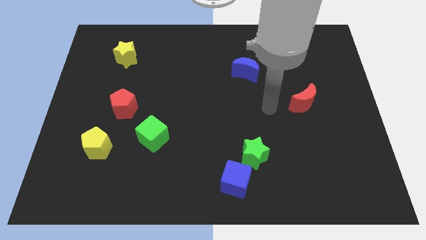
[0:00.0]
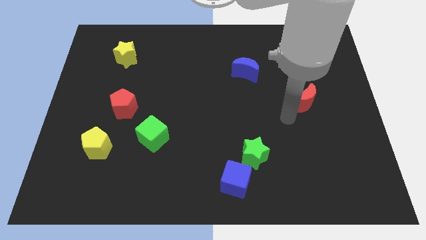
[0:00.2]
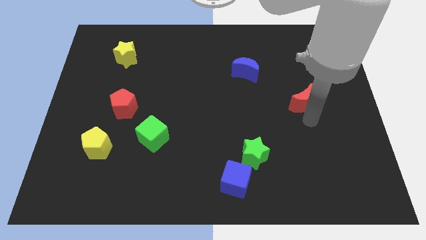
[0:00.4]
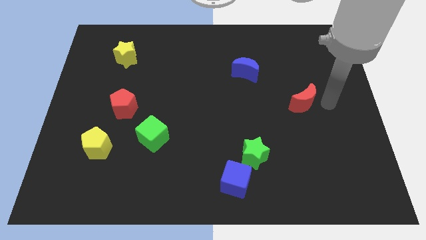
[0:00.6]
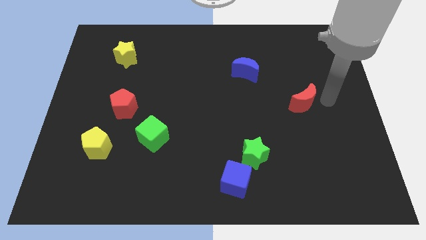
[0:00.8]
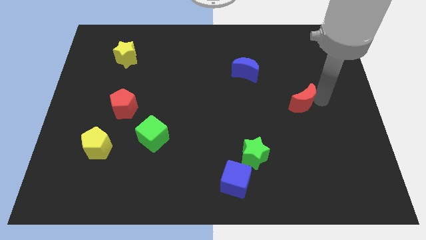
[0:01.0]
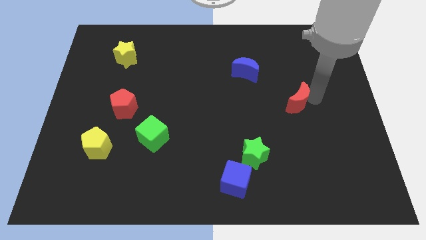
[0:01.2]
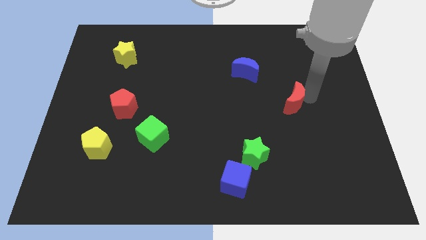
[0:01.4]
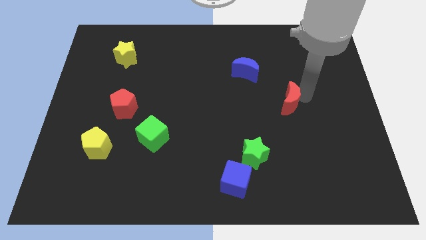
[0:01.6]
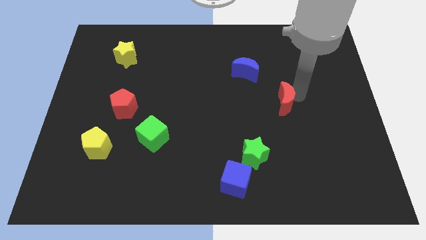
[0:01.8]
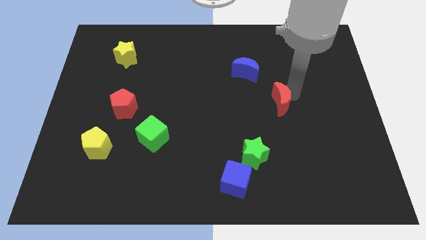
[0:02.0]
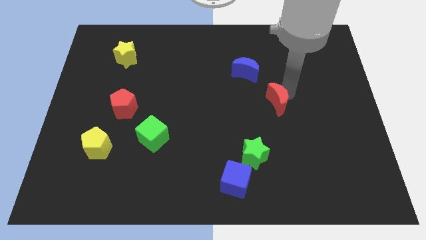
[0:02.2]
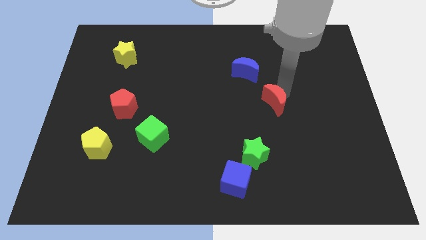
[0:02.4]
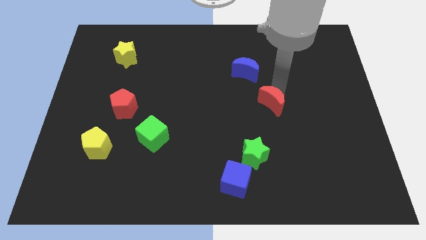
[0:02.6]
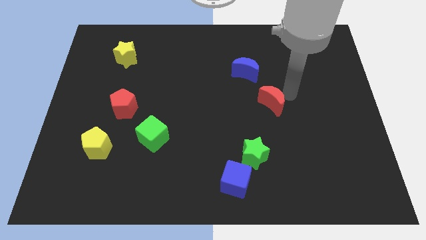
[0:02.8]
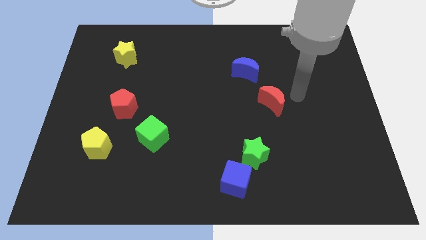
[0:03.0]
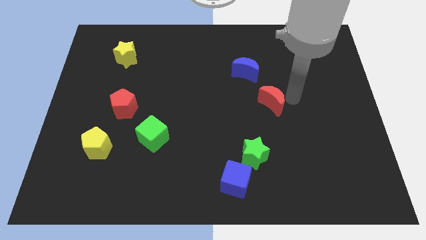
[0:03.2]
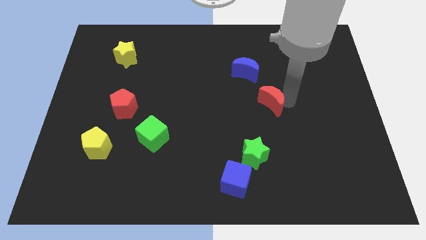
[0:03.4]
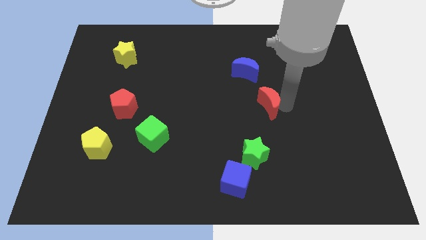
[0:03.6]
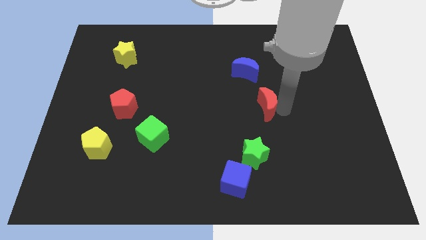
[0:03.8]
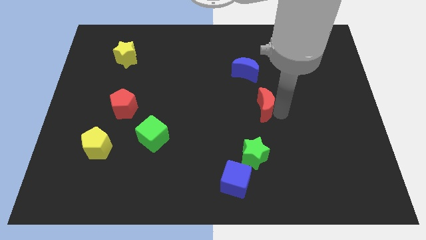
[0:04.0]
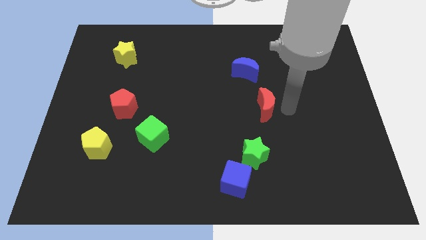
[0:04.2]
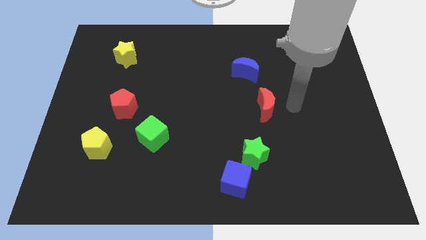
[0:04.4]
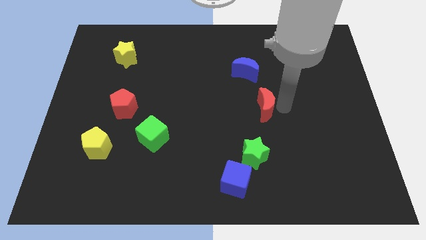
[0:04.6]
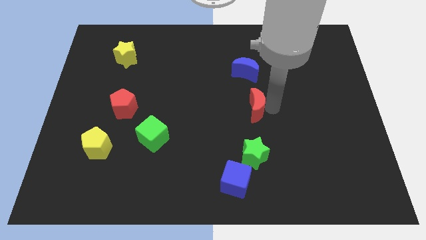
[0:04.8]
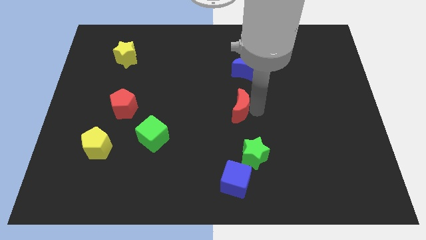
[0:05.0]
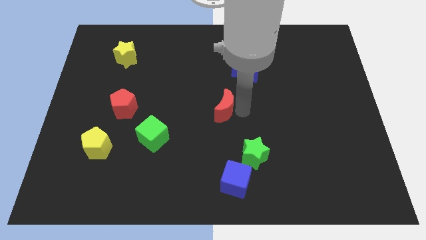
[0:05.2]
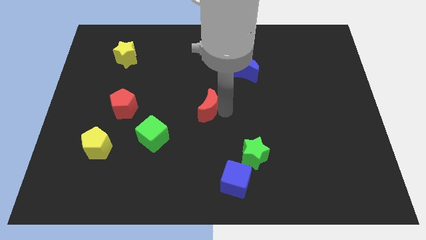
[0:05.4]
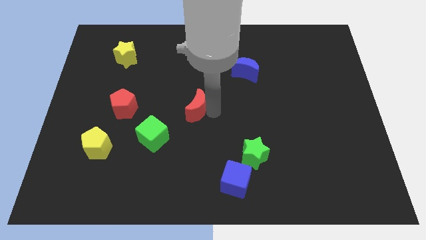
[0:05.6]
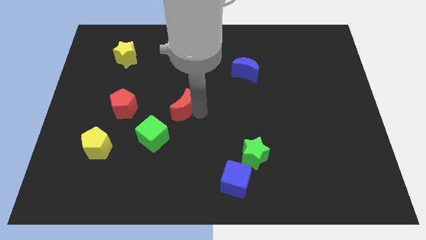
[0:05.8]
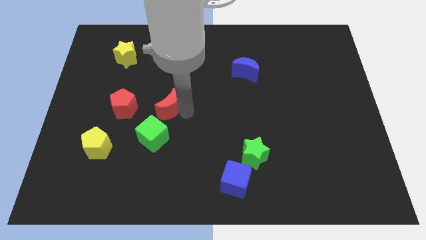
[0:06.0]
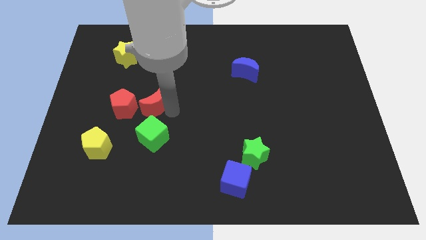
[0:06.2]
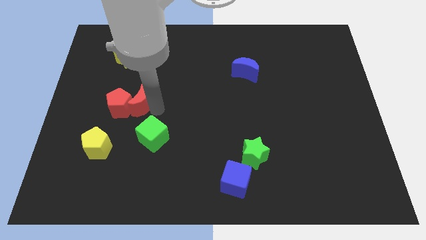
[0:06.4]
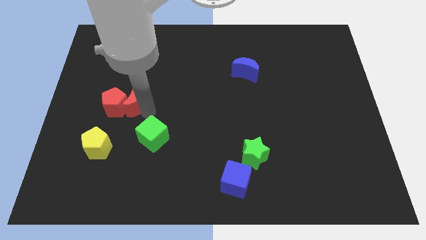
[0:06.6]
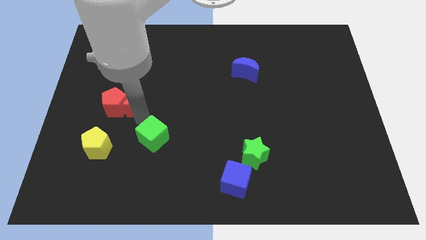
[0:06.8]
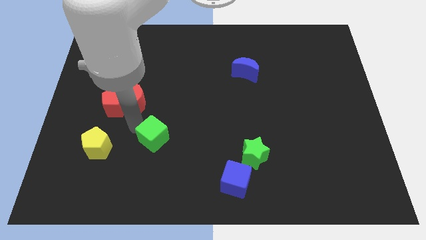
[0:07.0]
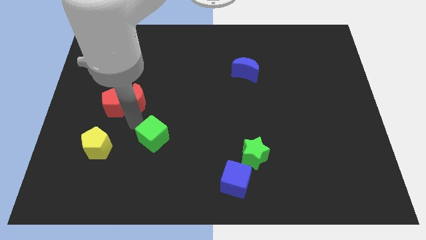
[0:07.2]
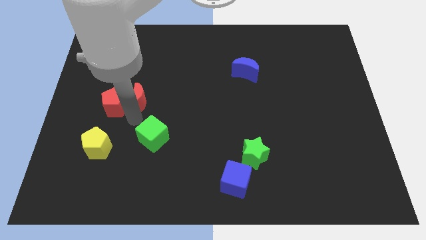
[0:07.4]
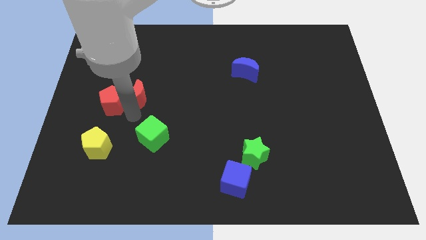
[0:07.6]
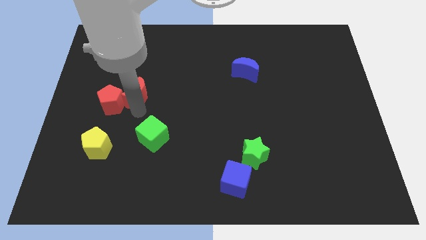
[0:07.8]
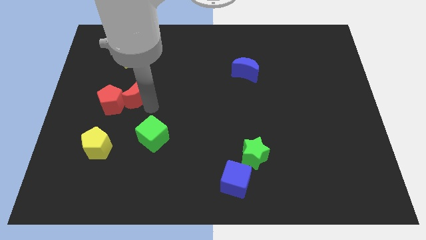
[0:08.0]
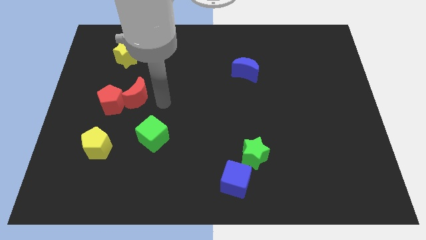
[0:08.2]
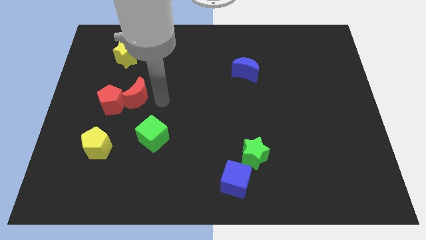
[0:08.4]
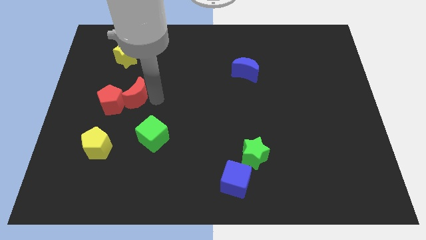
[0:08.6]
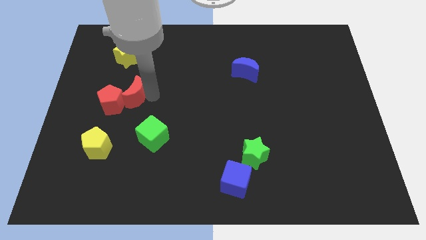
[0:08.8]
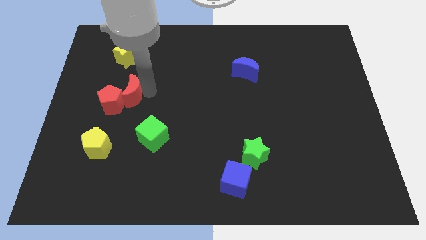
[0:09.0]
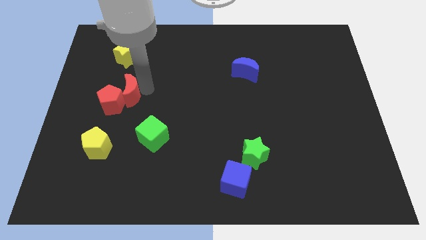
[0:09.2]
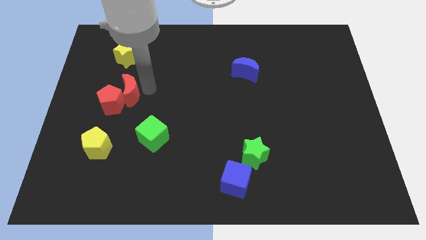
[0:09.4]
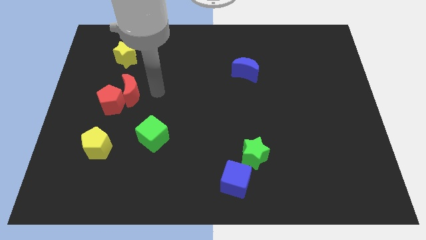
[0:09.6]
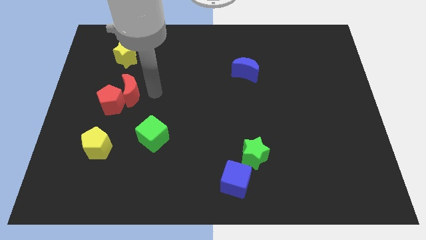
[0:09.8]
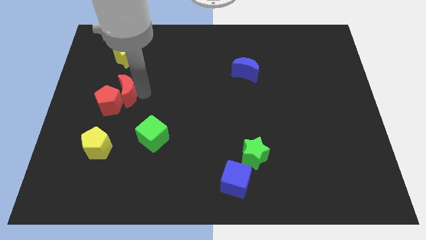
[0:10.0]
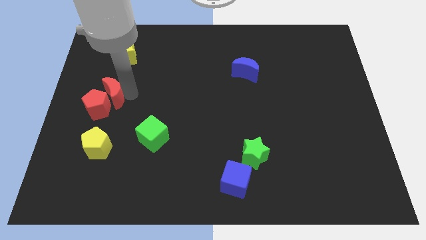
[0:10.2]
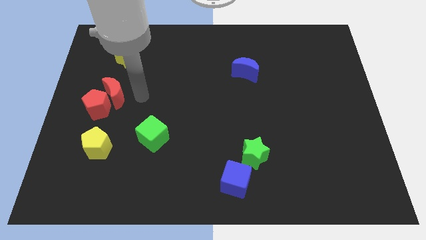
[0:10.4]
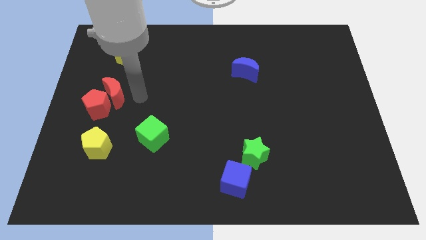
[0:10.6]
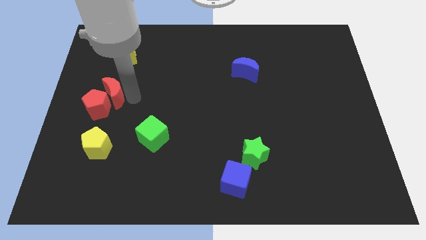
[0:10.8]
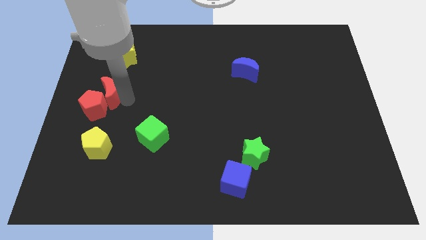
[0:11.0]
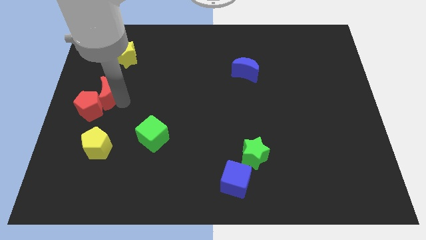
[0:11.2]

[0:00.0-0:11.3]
put the red moon to the left side of the board

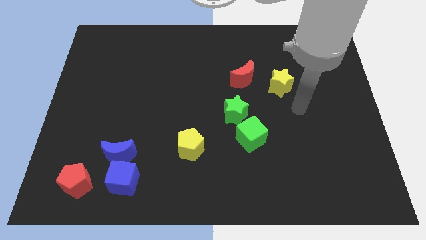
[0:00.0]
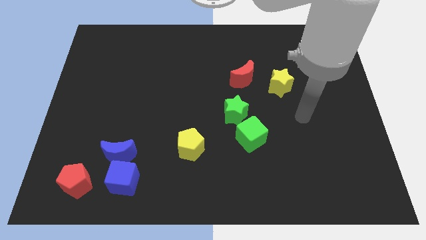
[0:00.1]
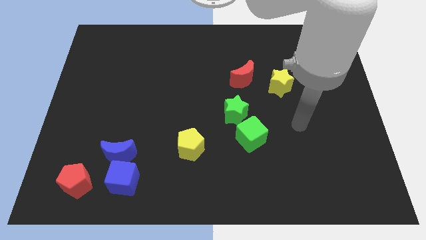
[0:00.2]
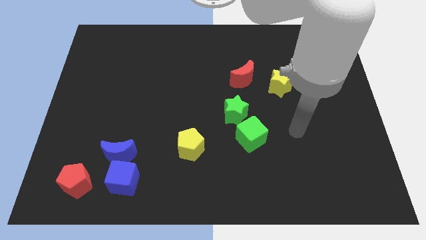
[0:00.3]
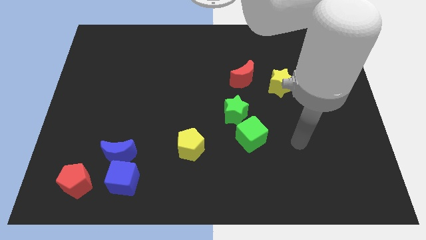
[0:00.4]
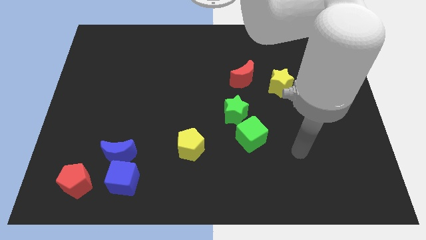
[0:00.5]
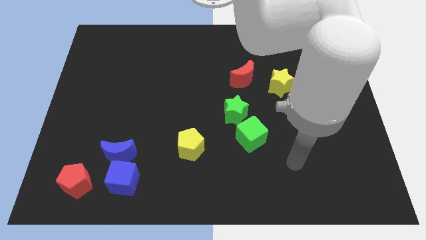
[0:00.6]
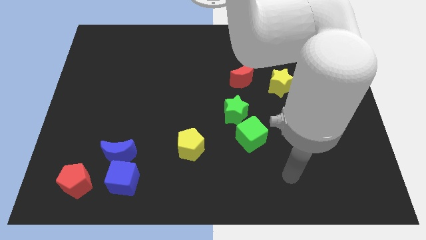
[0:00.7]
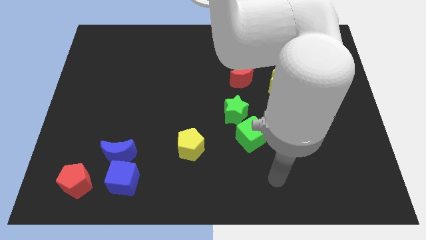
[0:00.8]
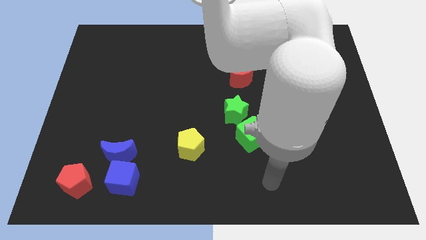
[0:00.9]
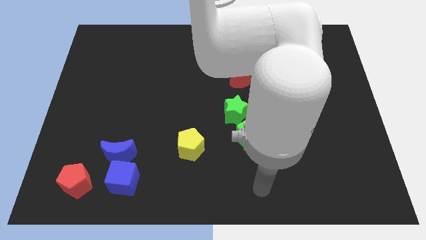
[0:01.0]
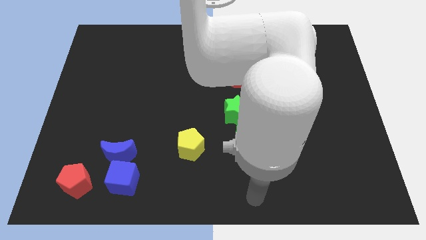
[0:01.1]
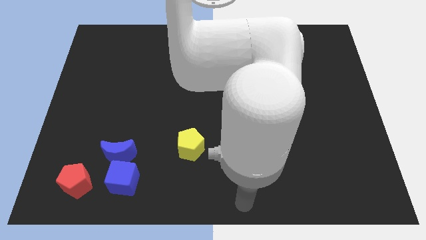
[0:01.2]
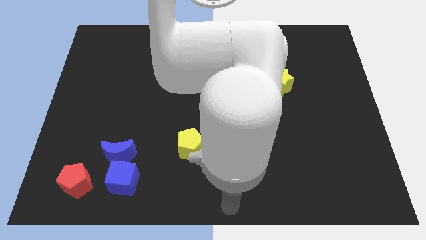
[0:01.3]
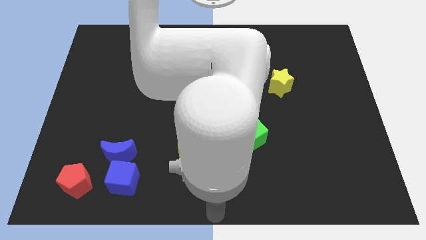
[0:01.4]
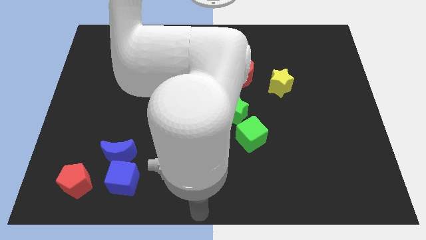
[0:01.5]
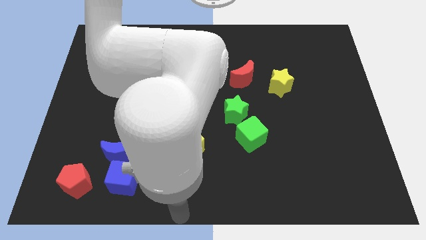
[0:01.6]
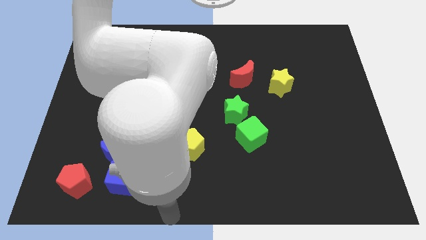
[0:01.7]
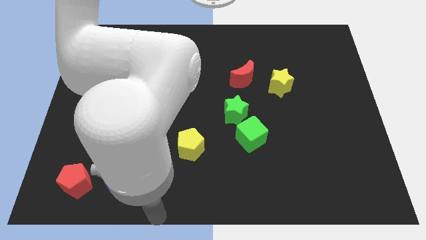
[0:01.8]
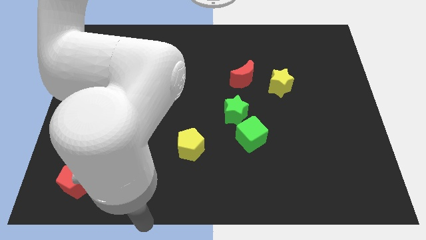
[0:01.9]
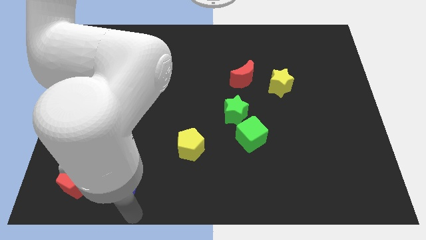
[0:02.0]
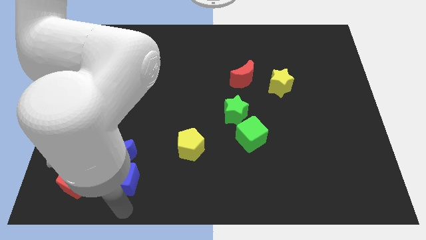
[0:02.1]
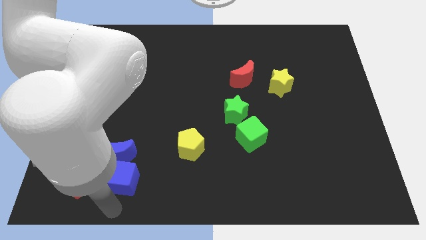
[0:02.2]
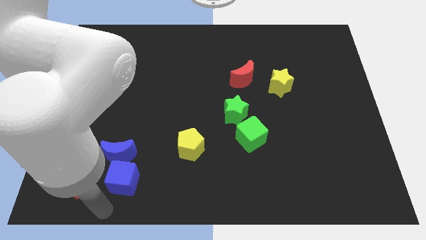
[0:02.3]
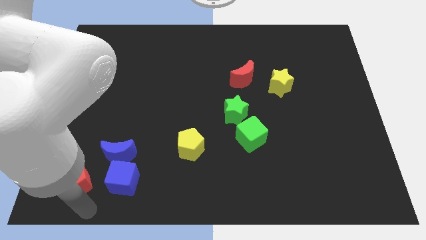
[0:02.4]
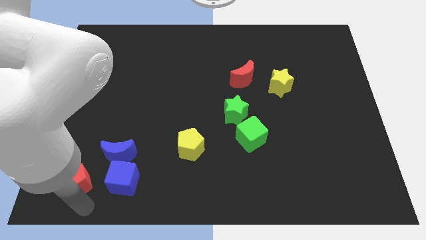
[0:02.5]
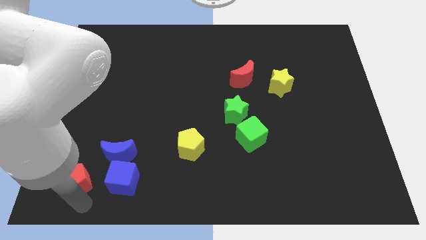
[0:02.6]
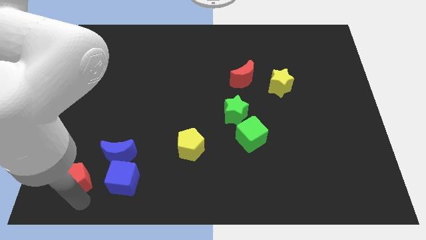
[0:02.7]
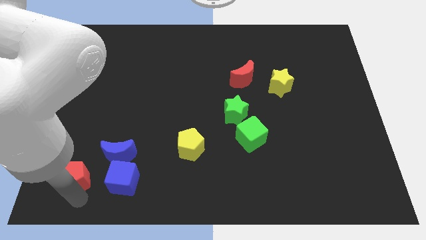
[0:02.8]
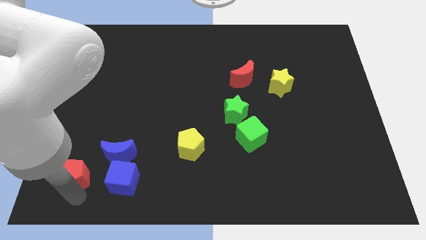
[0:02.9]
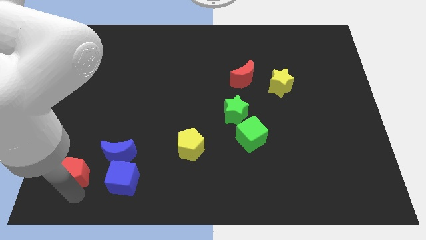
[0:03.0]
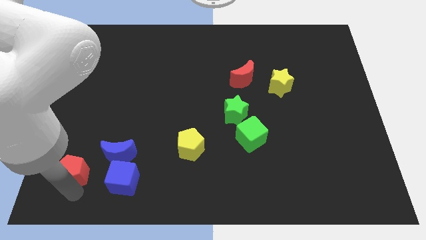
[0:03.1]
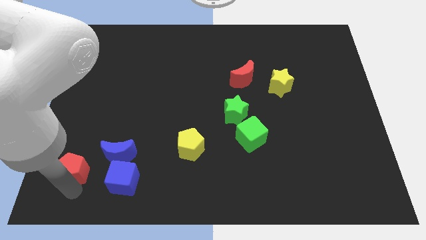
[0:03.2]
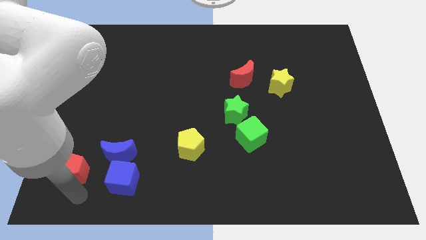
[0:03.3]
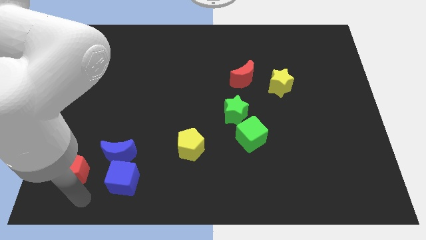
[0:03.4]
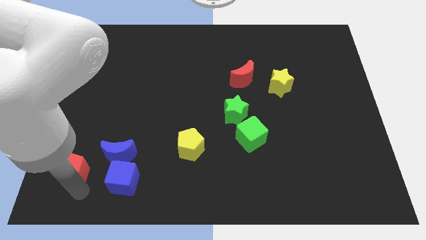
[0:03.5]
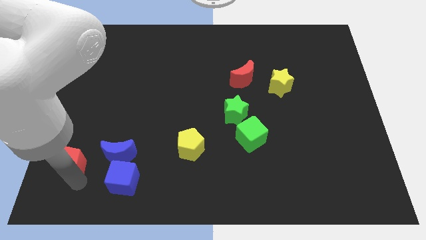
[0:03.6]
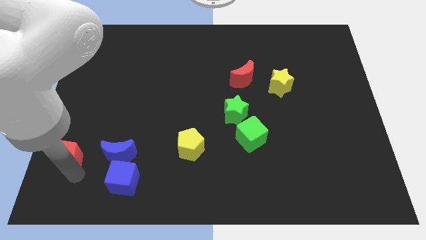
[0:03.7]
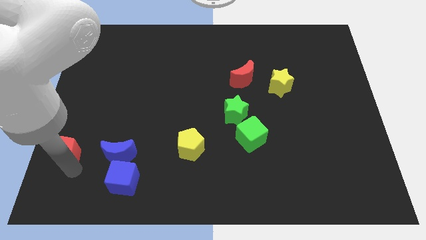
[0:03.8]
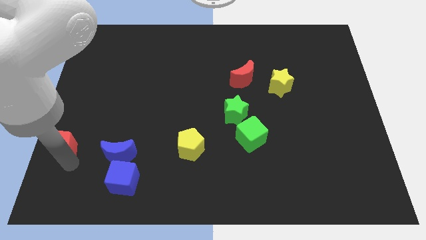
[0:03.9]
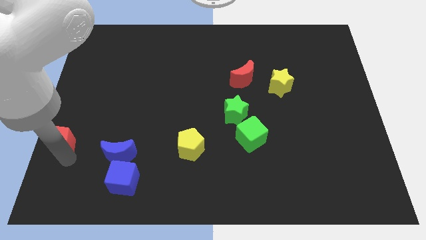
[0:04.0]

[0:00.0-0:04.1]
put the red pentagon to the left side
